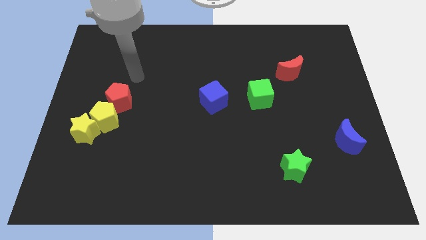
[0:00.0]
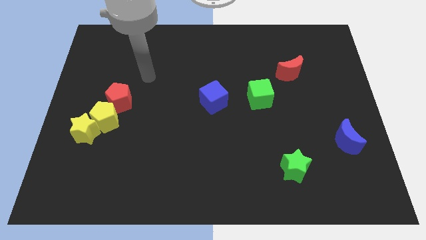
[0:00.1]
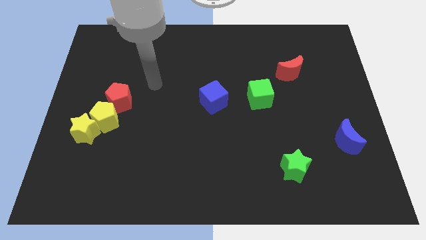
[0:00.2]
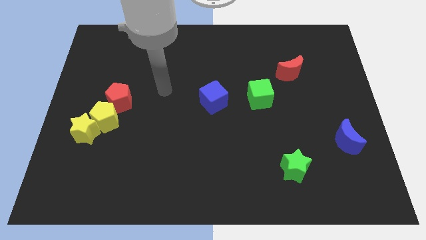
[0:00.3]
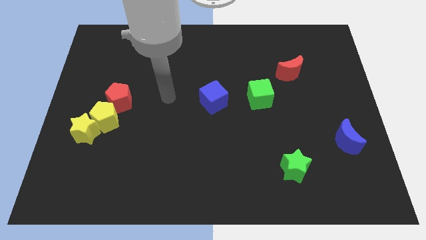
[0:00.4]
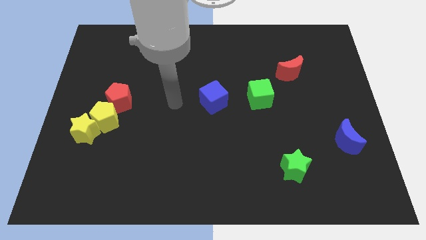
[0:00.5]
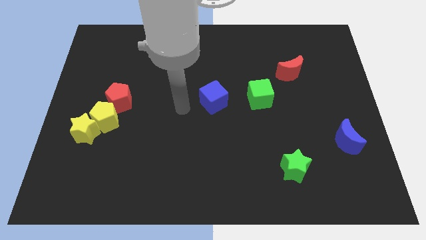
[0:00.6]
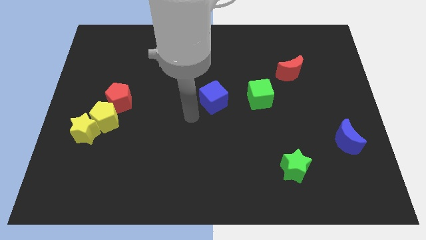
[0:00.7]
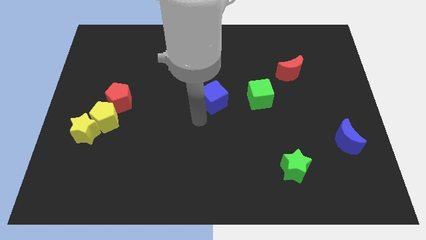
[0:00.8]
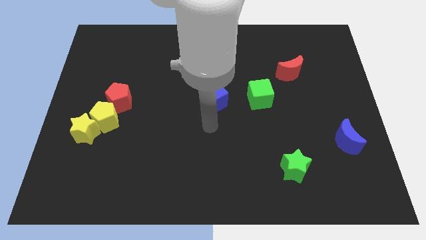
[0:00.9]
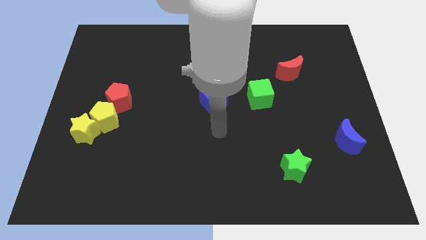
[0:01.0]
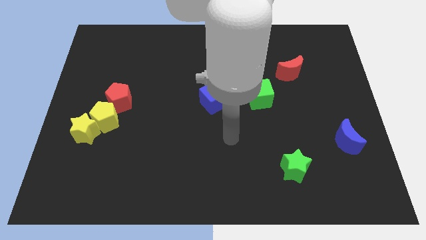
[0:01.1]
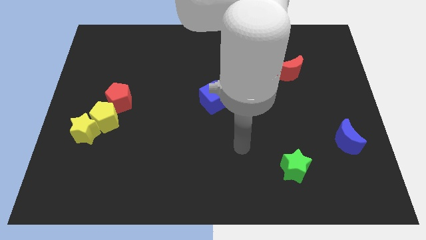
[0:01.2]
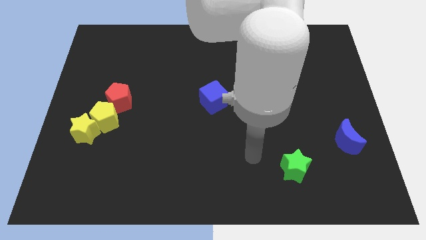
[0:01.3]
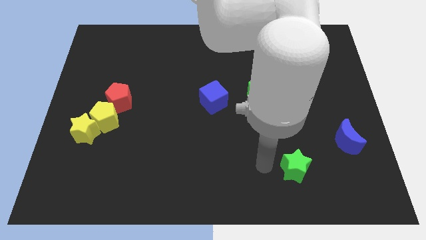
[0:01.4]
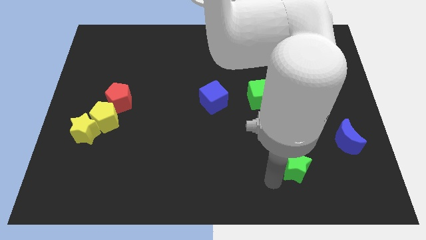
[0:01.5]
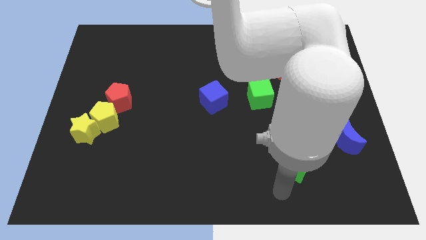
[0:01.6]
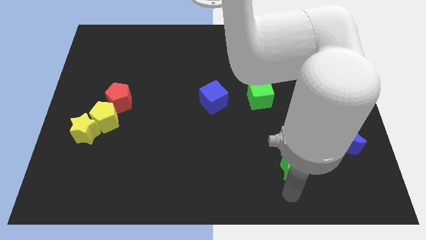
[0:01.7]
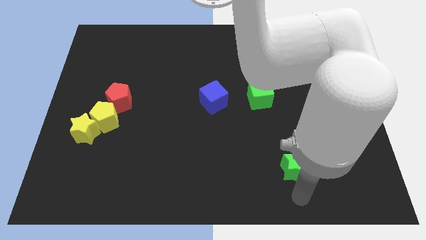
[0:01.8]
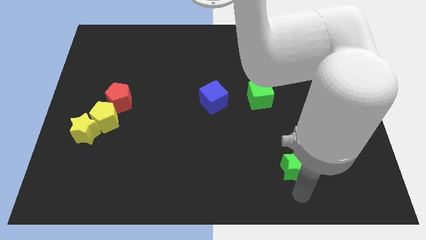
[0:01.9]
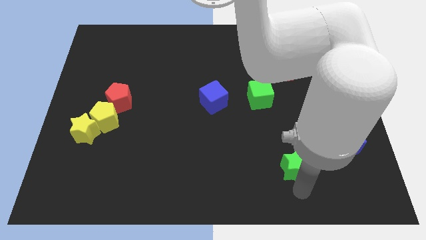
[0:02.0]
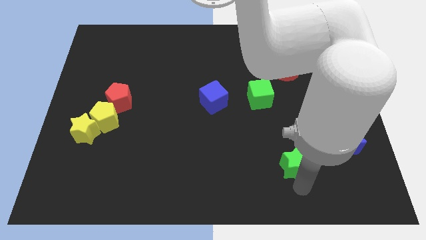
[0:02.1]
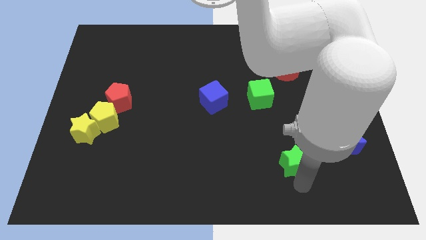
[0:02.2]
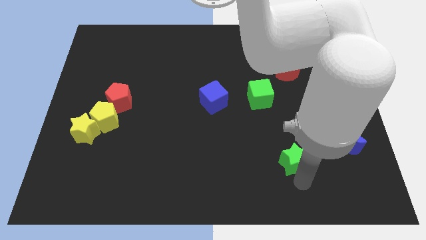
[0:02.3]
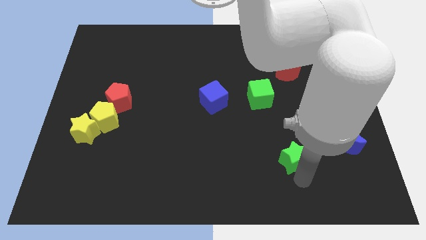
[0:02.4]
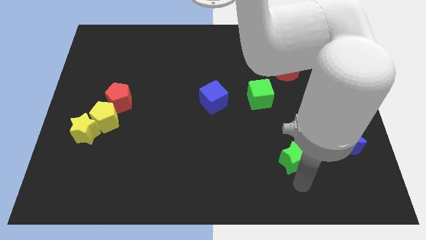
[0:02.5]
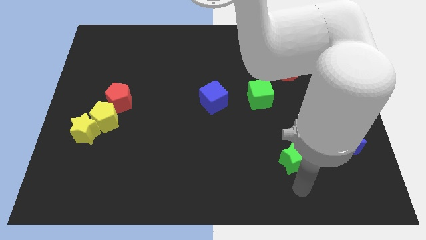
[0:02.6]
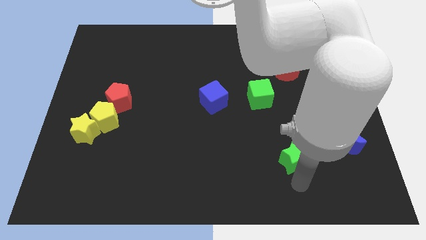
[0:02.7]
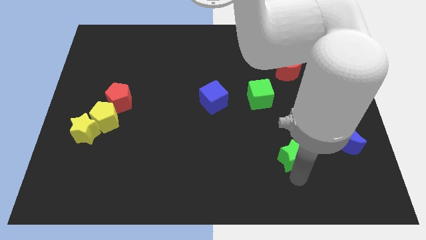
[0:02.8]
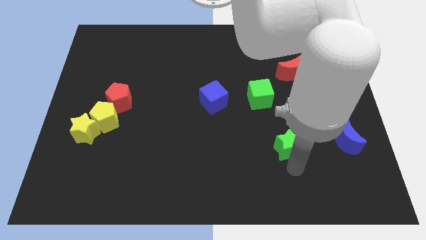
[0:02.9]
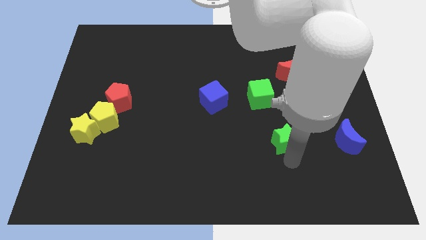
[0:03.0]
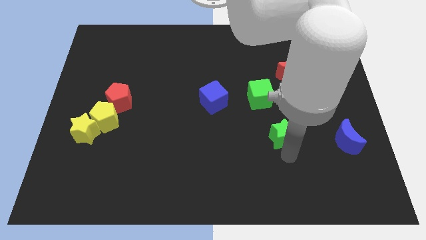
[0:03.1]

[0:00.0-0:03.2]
slightly slide the green star upwards

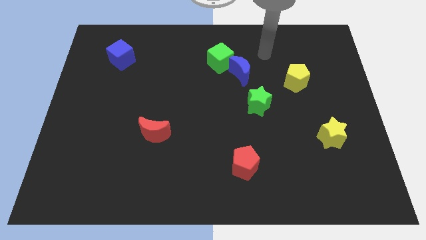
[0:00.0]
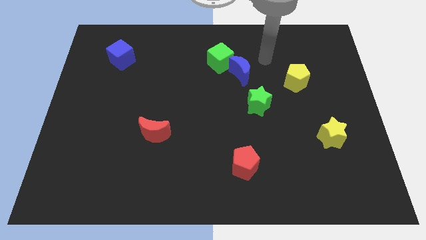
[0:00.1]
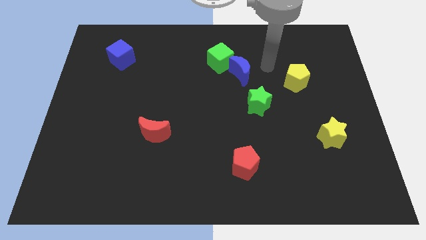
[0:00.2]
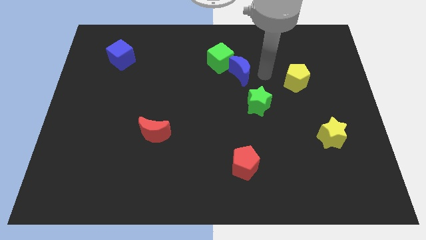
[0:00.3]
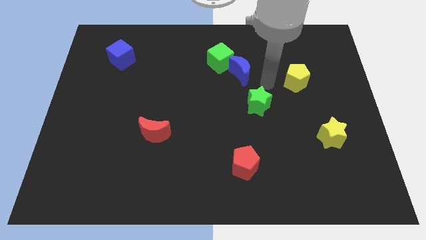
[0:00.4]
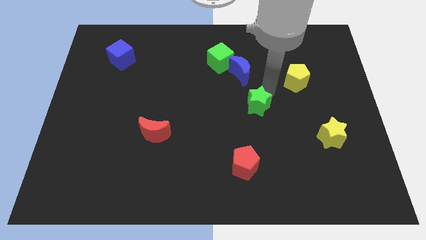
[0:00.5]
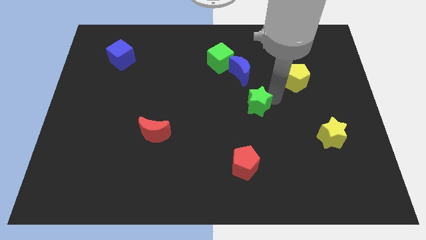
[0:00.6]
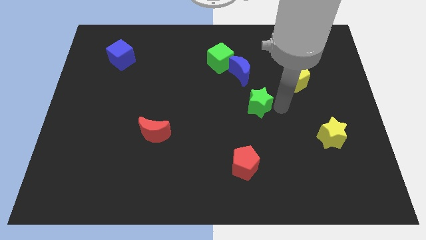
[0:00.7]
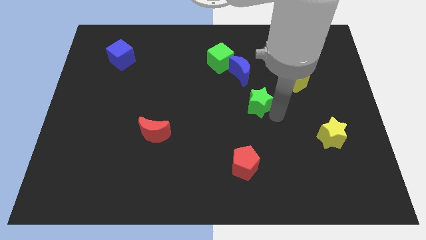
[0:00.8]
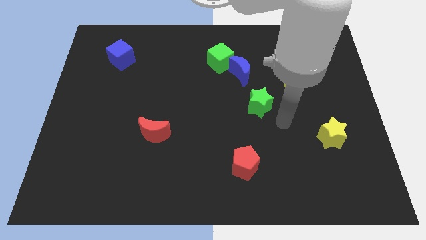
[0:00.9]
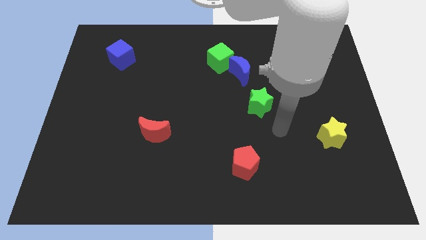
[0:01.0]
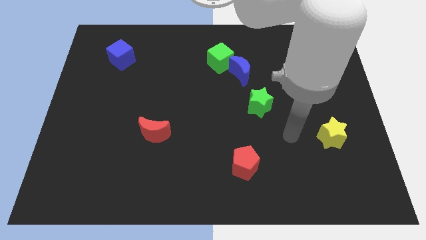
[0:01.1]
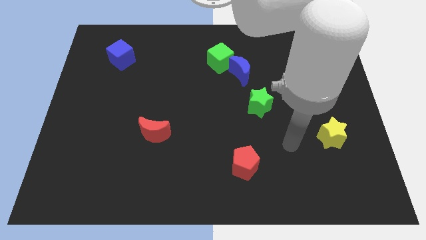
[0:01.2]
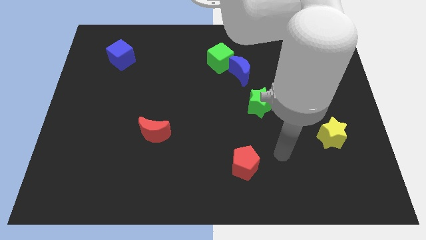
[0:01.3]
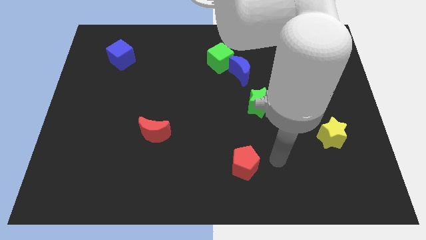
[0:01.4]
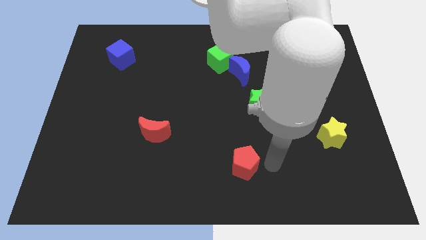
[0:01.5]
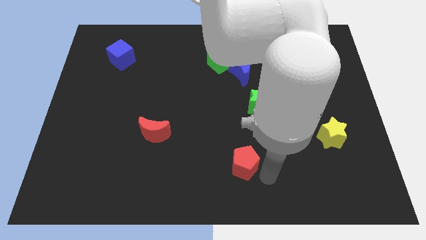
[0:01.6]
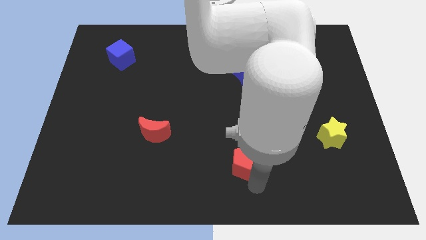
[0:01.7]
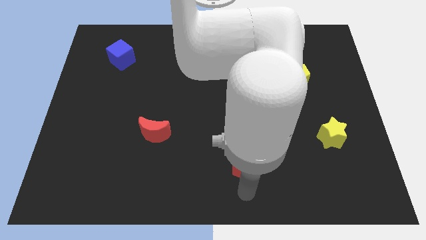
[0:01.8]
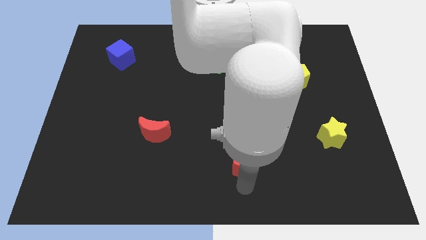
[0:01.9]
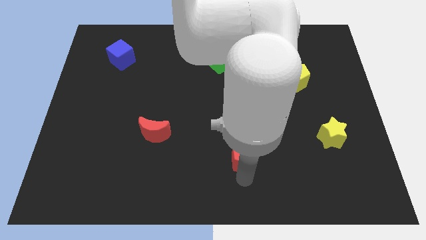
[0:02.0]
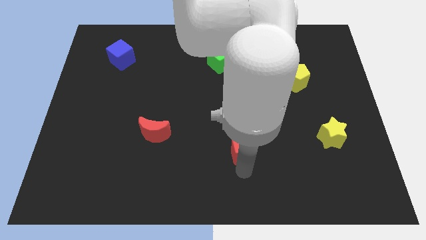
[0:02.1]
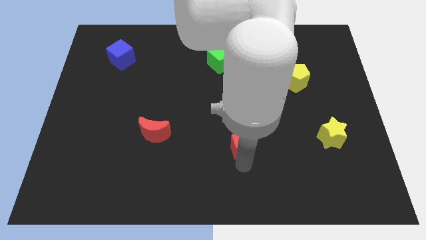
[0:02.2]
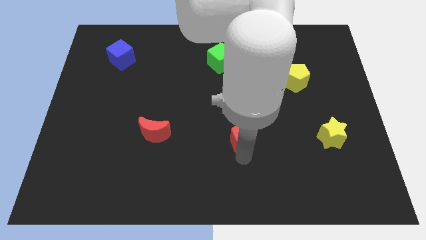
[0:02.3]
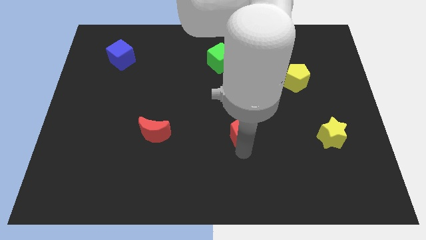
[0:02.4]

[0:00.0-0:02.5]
slightly move the red pentagon up

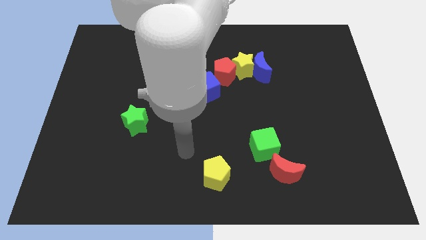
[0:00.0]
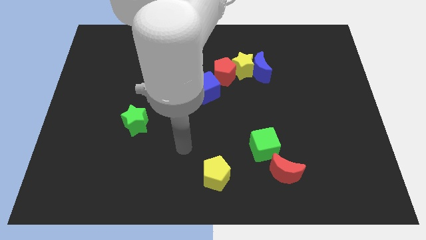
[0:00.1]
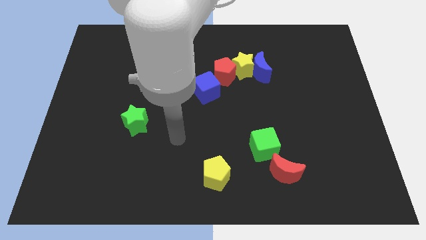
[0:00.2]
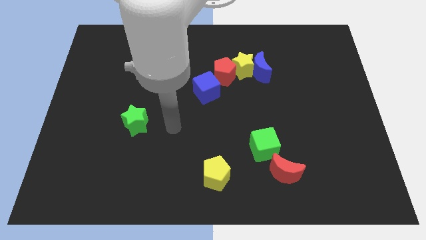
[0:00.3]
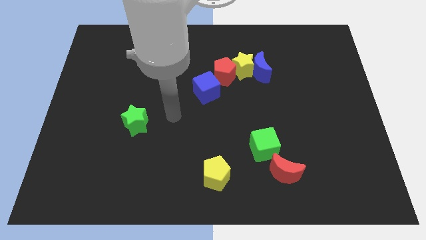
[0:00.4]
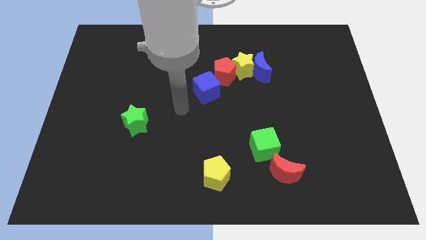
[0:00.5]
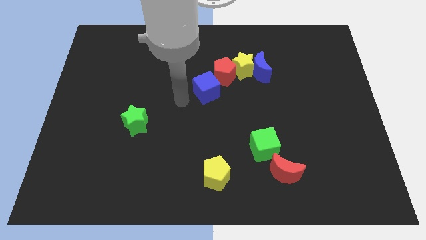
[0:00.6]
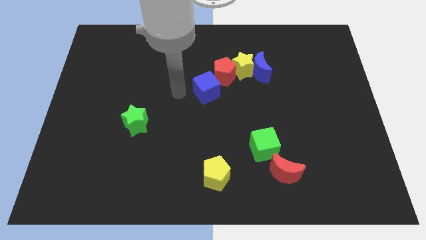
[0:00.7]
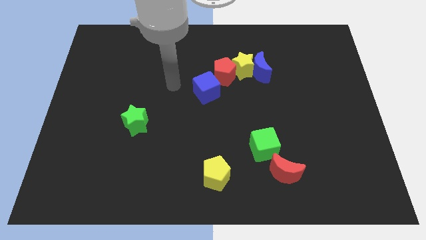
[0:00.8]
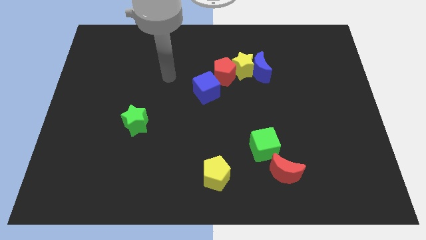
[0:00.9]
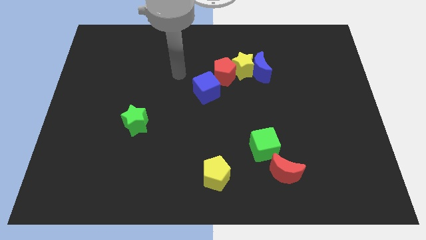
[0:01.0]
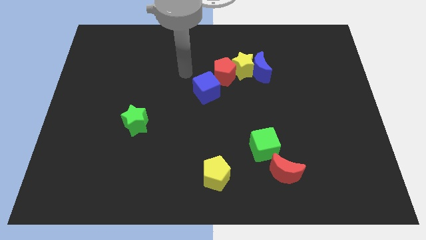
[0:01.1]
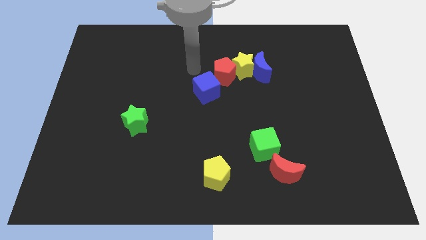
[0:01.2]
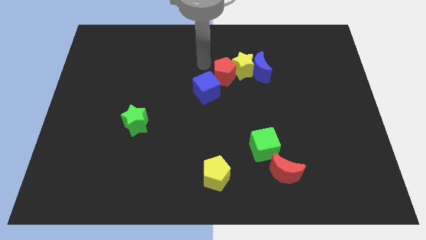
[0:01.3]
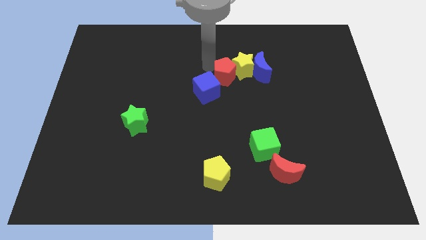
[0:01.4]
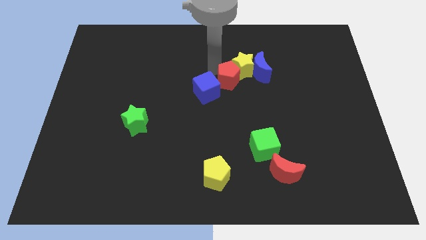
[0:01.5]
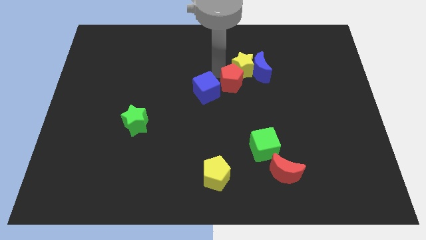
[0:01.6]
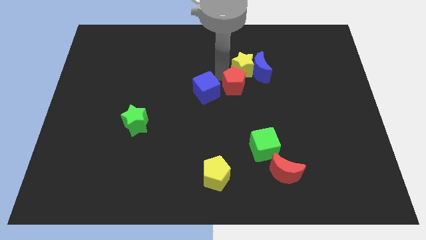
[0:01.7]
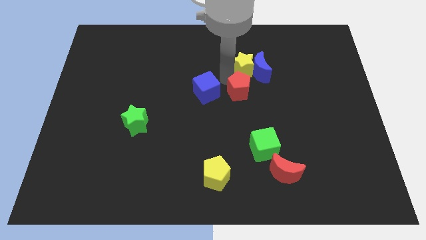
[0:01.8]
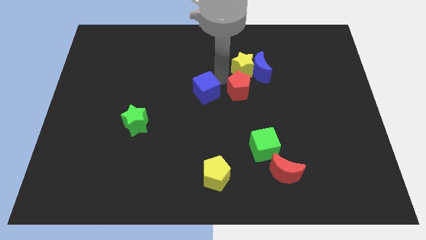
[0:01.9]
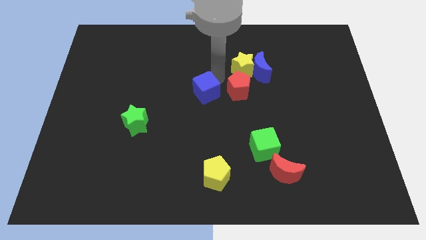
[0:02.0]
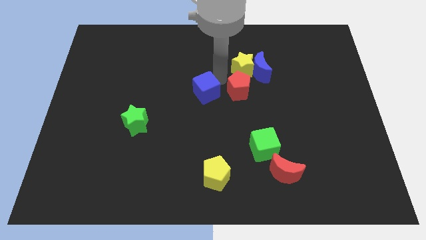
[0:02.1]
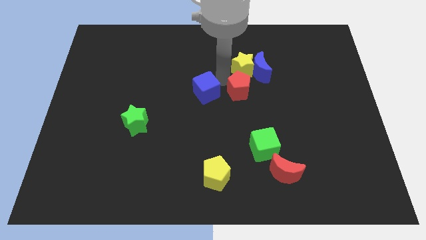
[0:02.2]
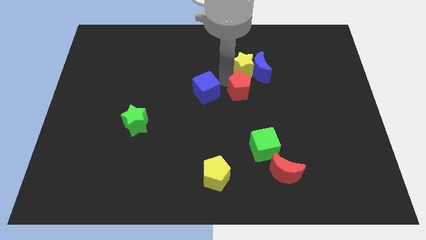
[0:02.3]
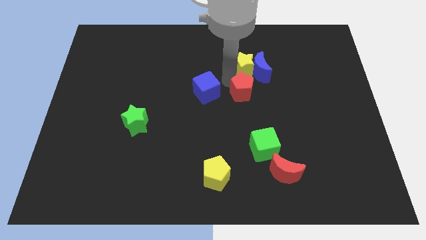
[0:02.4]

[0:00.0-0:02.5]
slightly slide the red pentagon diagonally downwards and to the right
